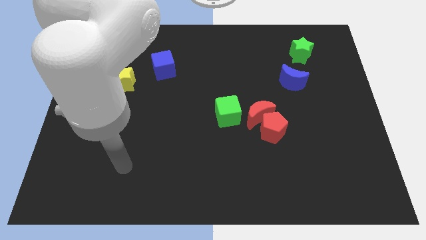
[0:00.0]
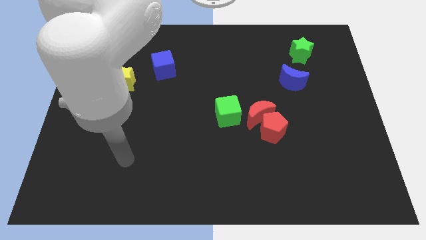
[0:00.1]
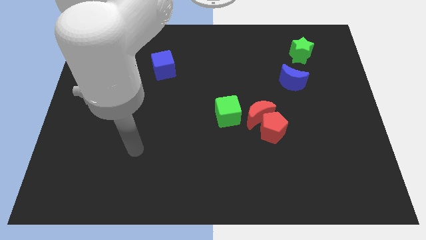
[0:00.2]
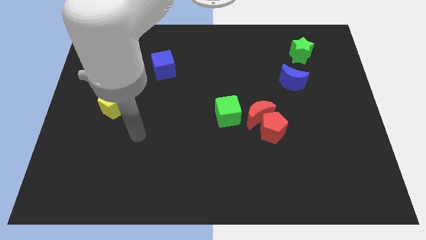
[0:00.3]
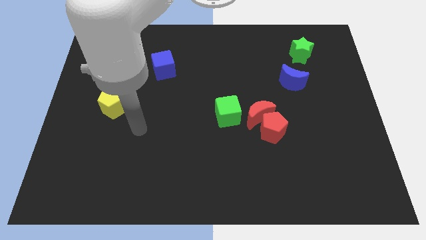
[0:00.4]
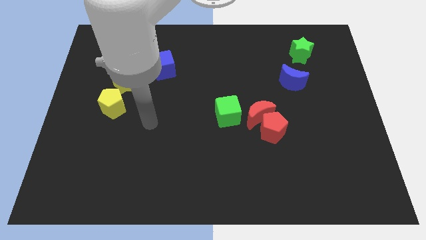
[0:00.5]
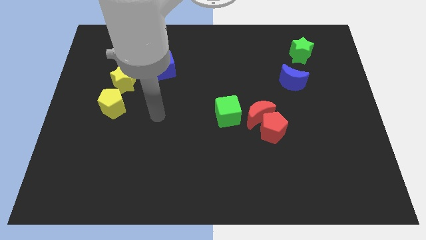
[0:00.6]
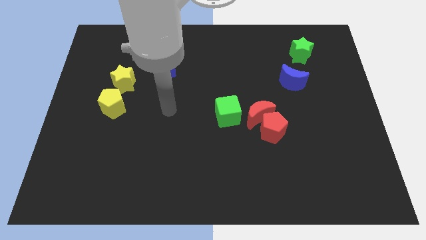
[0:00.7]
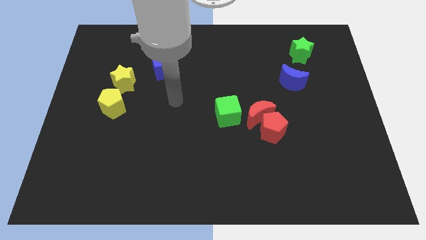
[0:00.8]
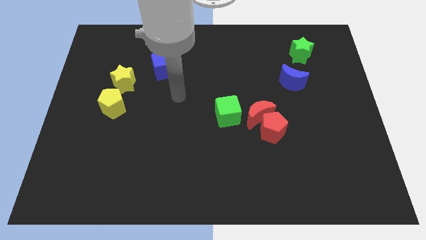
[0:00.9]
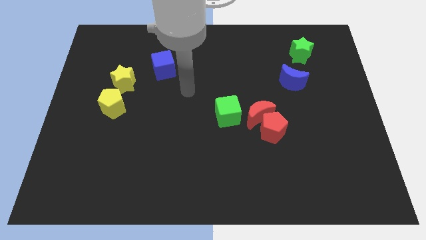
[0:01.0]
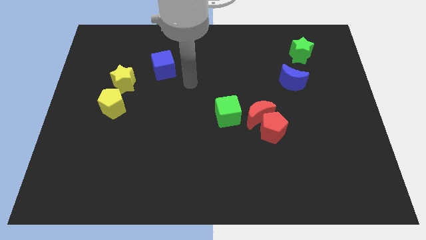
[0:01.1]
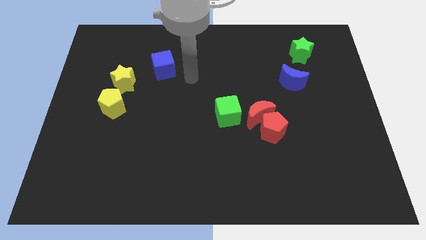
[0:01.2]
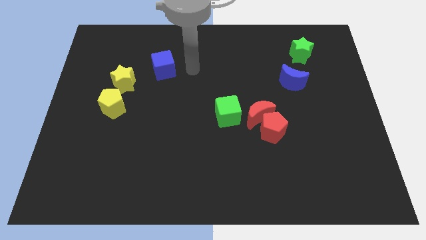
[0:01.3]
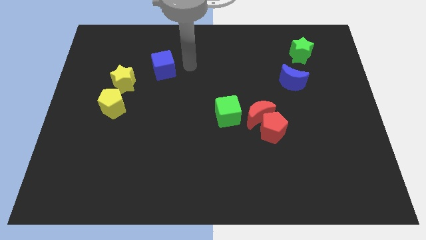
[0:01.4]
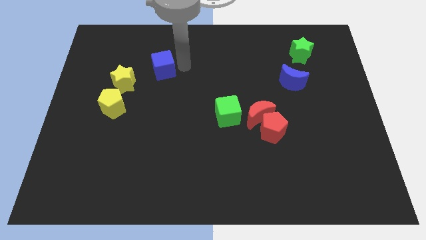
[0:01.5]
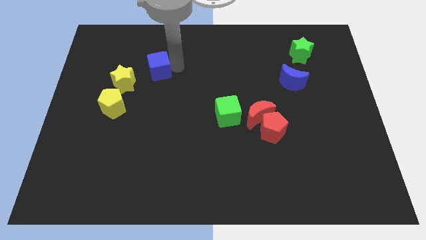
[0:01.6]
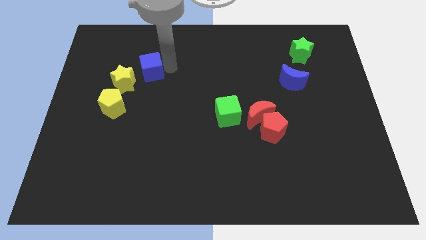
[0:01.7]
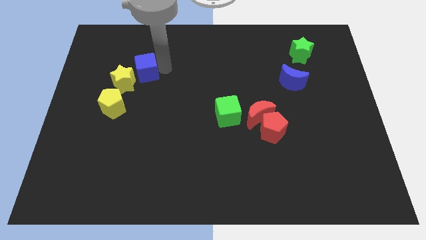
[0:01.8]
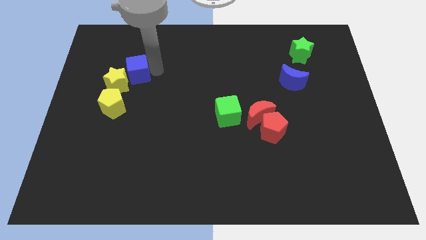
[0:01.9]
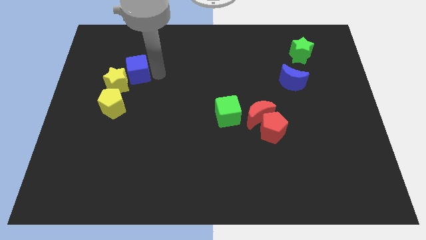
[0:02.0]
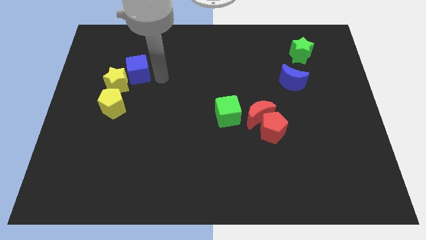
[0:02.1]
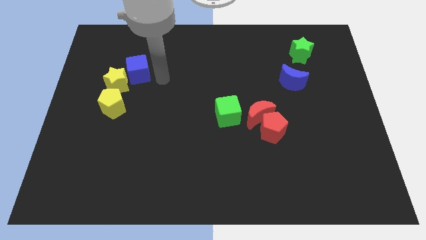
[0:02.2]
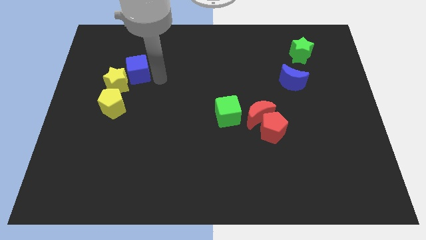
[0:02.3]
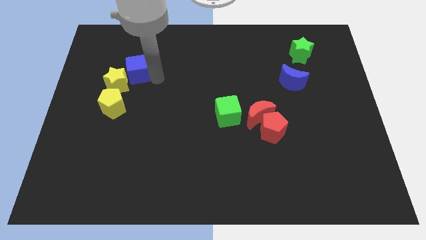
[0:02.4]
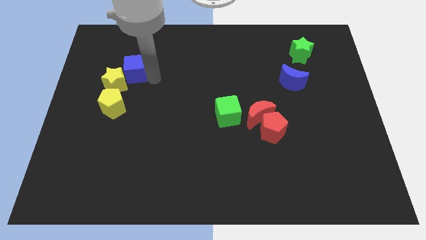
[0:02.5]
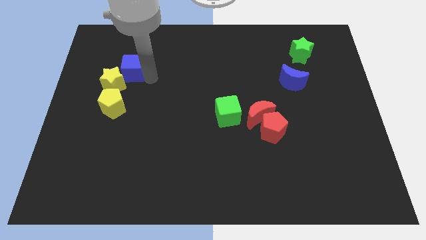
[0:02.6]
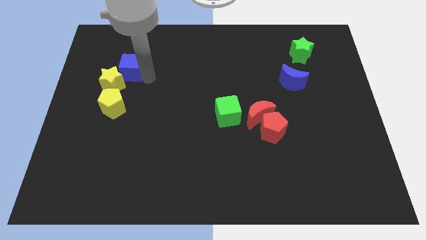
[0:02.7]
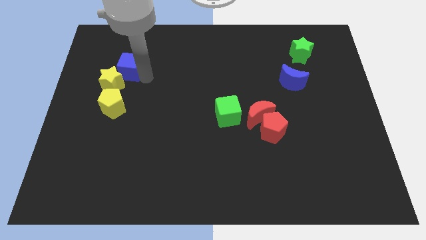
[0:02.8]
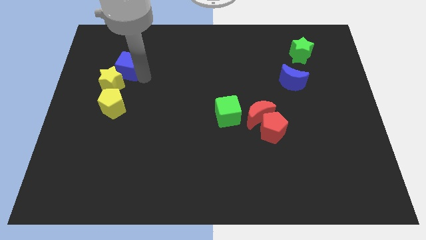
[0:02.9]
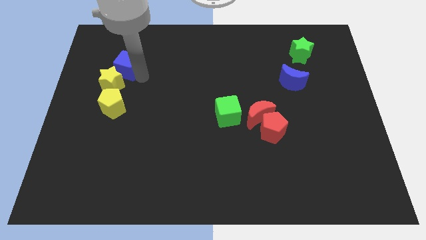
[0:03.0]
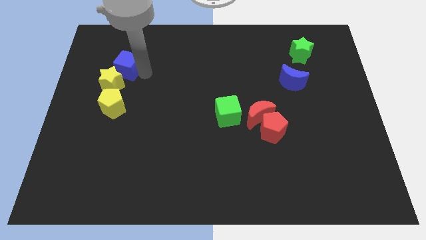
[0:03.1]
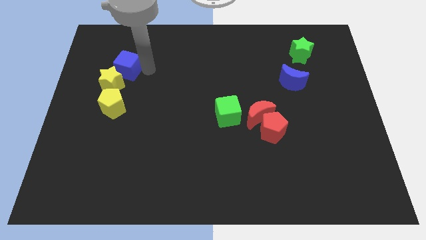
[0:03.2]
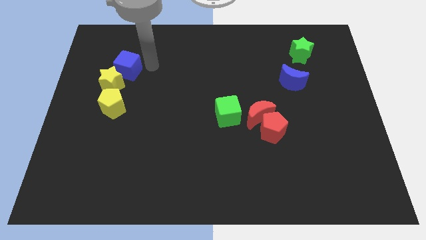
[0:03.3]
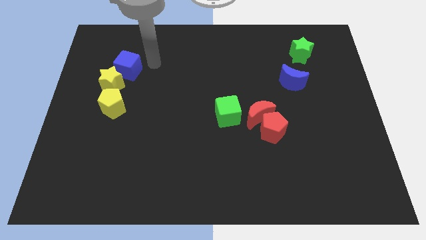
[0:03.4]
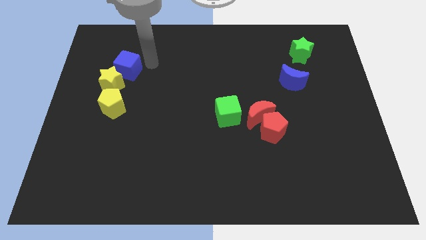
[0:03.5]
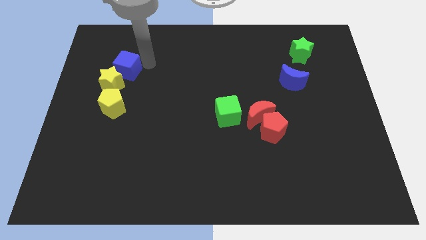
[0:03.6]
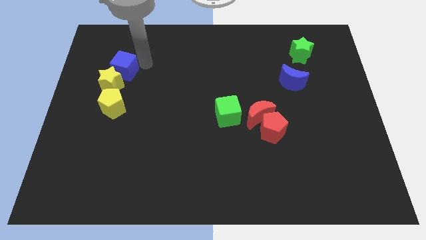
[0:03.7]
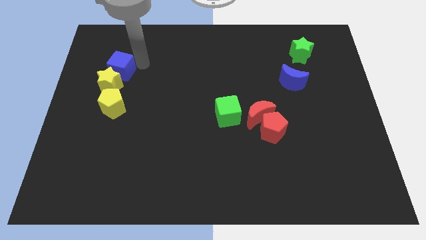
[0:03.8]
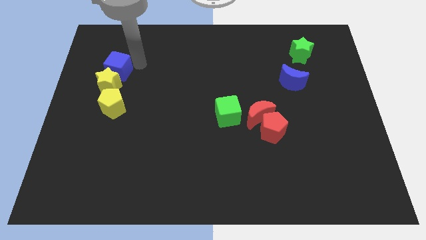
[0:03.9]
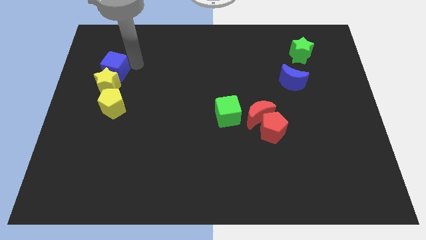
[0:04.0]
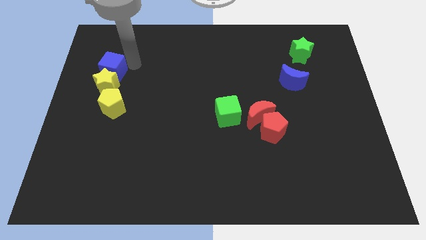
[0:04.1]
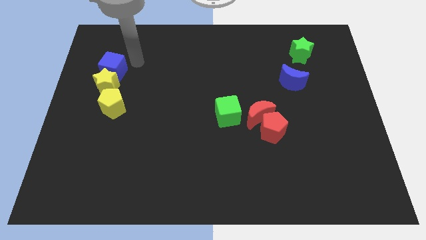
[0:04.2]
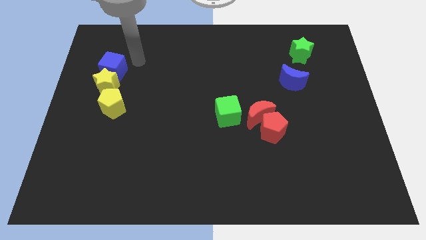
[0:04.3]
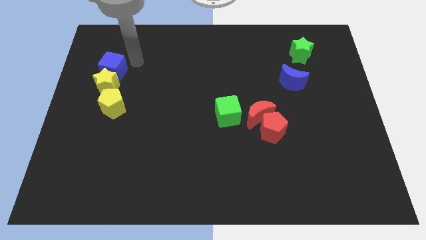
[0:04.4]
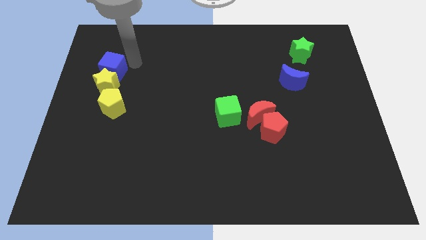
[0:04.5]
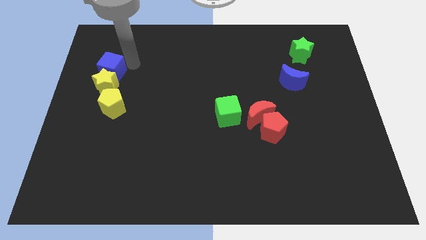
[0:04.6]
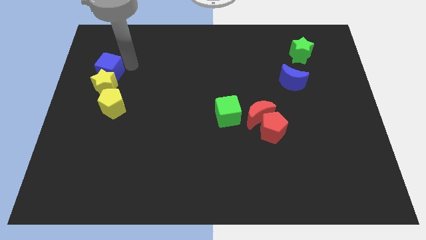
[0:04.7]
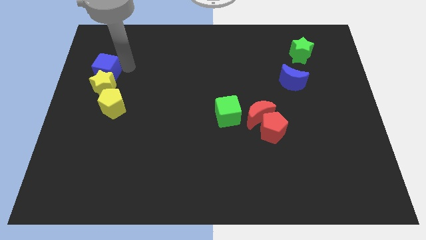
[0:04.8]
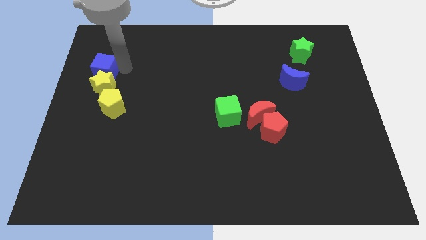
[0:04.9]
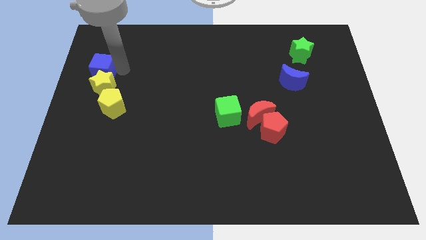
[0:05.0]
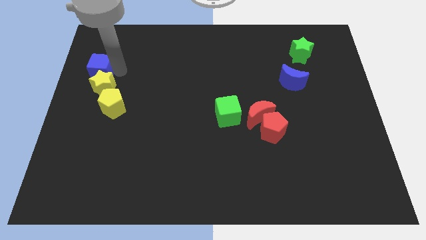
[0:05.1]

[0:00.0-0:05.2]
put the blue cube to the left side
